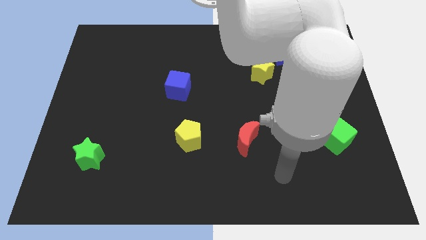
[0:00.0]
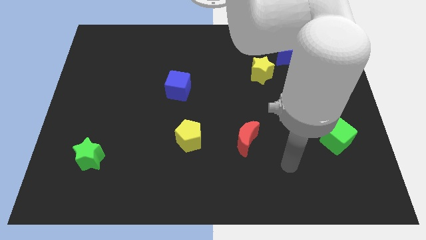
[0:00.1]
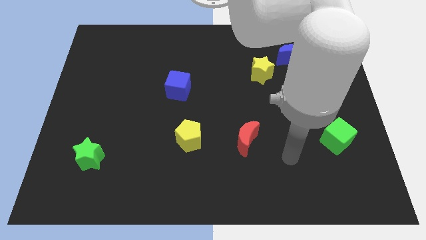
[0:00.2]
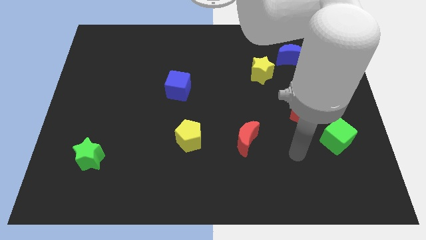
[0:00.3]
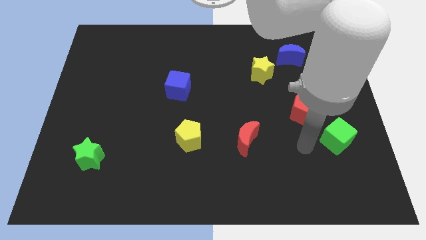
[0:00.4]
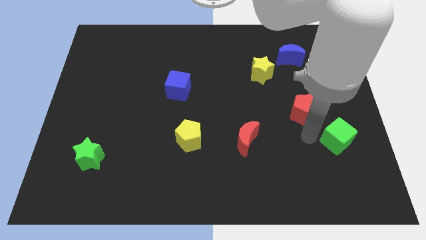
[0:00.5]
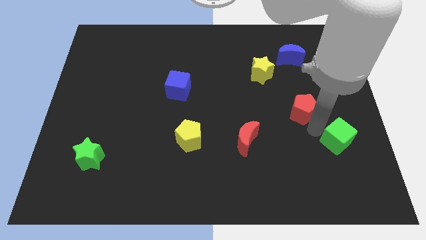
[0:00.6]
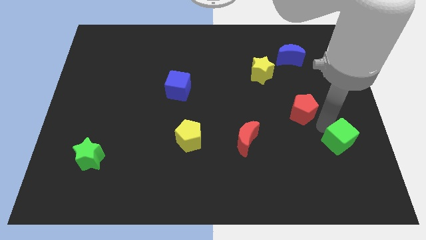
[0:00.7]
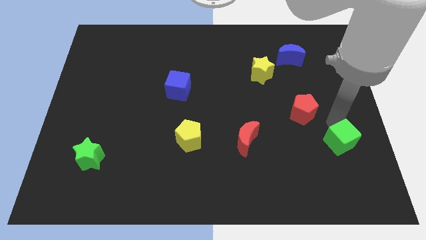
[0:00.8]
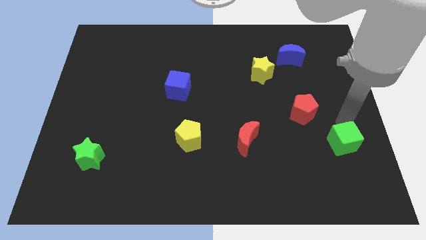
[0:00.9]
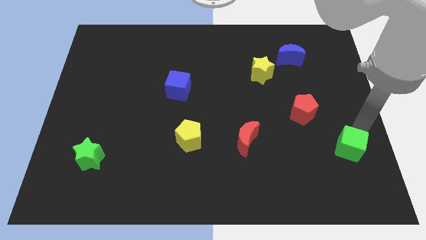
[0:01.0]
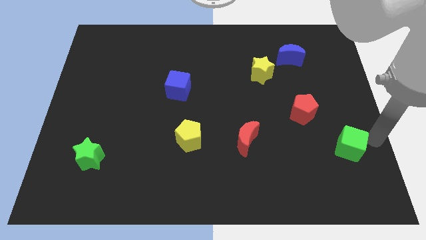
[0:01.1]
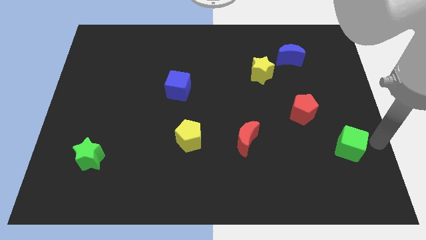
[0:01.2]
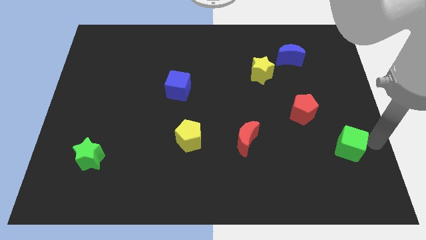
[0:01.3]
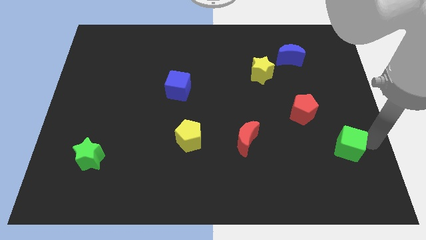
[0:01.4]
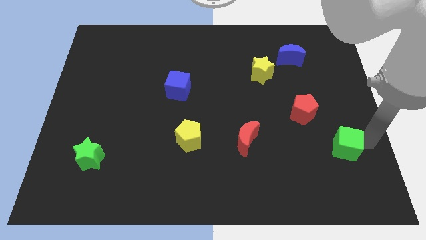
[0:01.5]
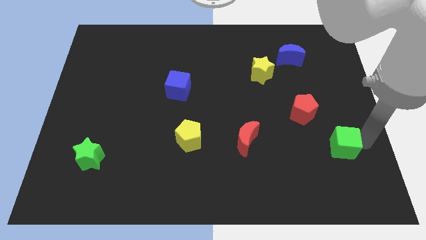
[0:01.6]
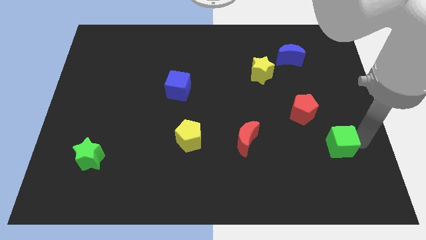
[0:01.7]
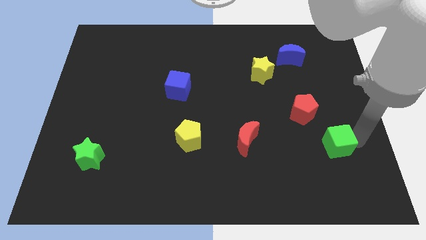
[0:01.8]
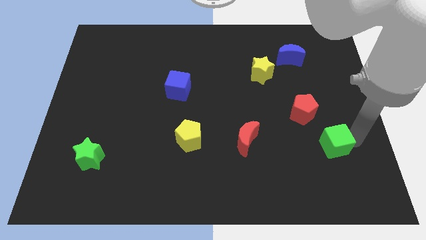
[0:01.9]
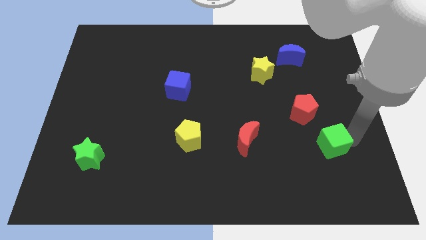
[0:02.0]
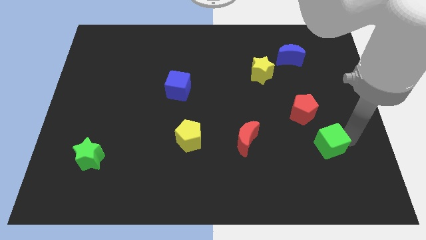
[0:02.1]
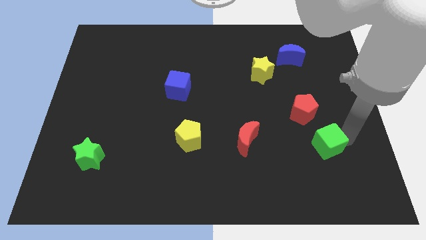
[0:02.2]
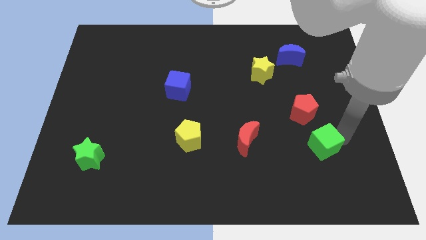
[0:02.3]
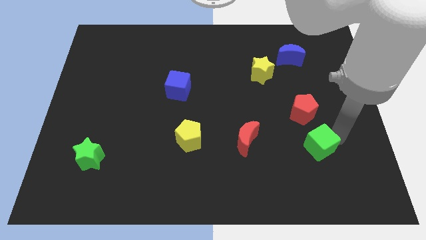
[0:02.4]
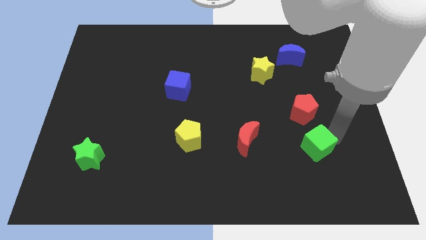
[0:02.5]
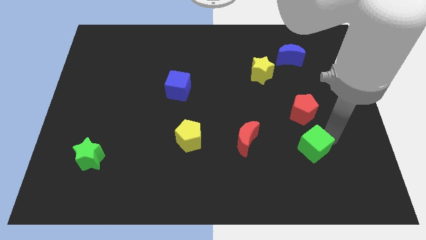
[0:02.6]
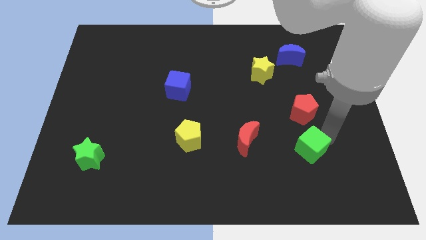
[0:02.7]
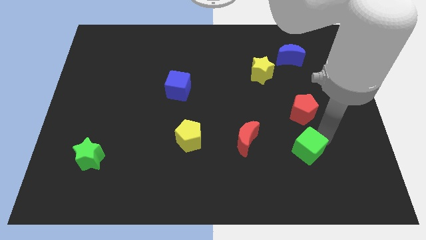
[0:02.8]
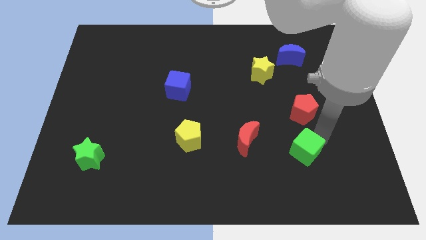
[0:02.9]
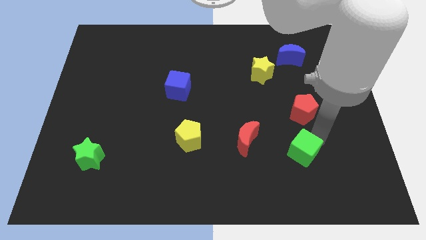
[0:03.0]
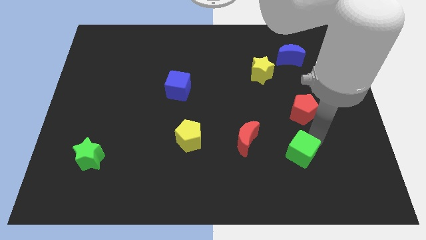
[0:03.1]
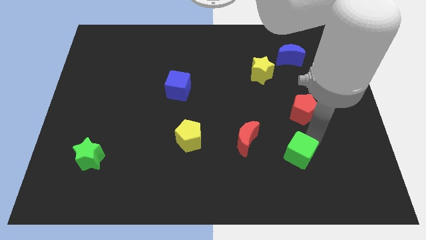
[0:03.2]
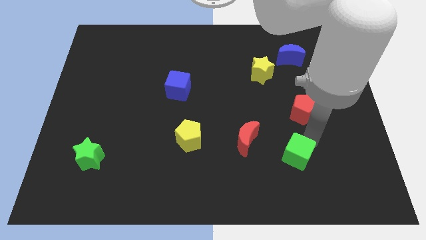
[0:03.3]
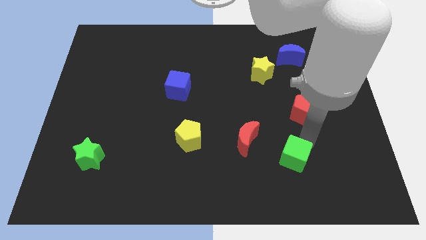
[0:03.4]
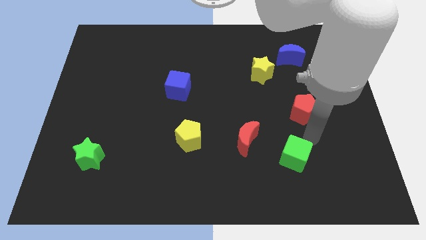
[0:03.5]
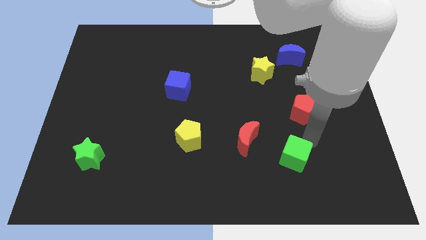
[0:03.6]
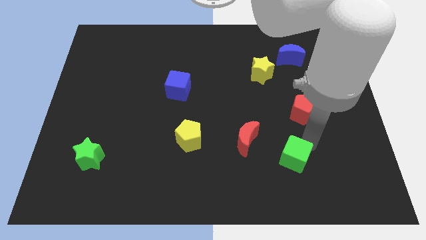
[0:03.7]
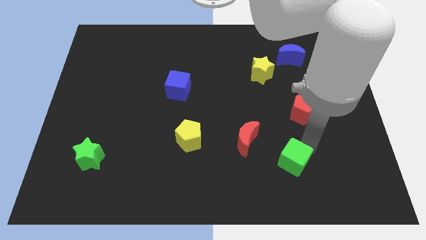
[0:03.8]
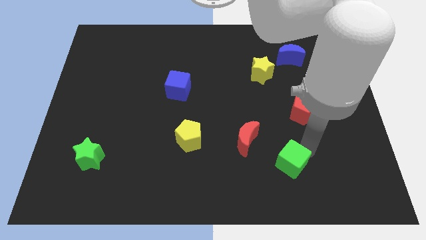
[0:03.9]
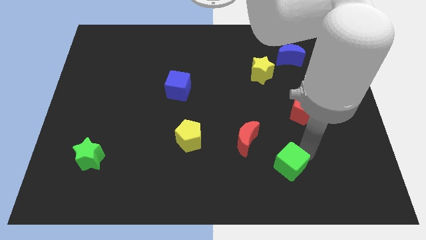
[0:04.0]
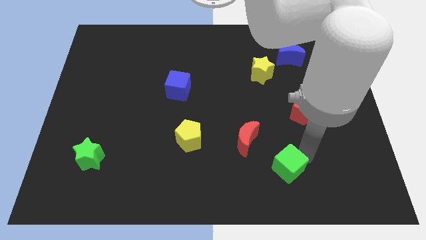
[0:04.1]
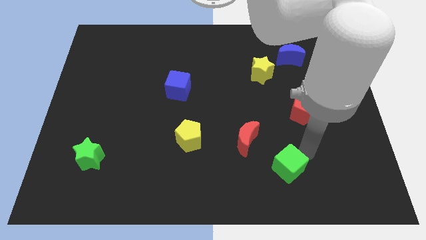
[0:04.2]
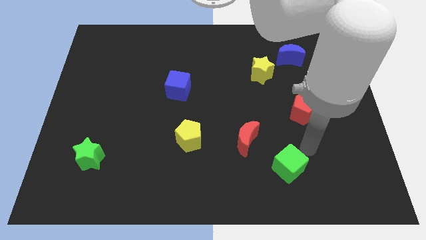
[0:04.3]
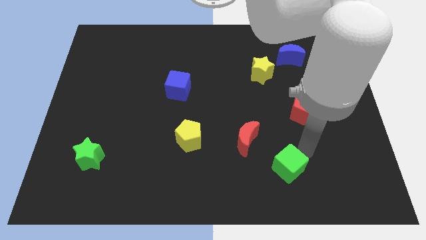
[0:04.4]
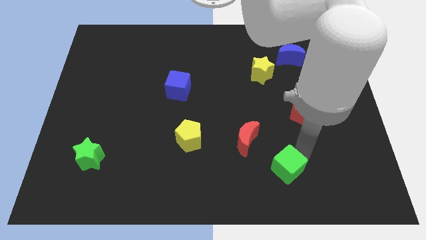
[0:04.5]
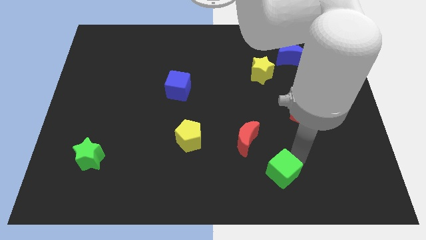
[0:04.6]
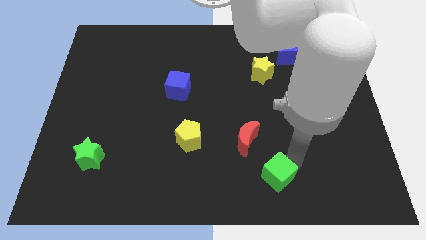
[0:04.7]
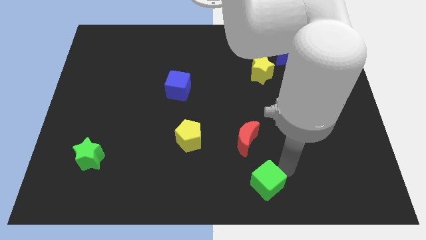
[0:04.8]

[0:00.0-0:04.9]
put the green cube to the bottom

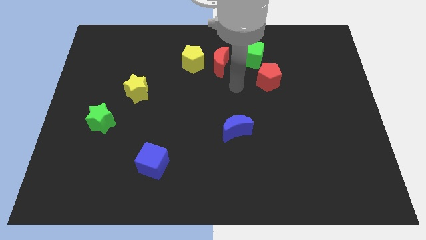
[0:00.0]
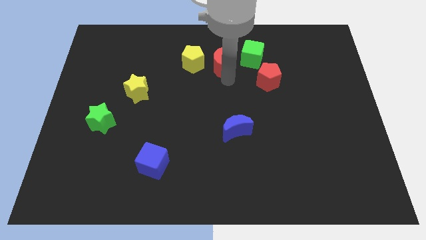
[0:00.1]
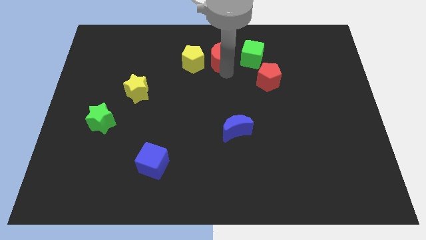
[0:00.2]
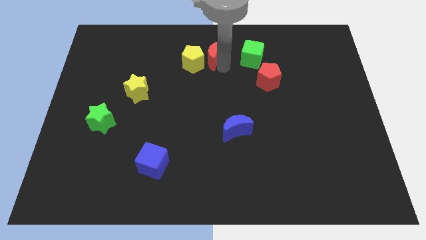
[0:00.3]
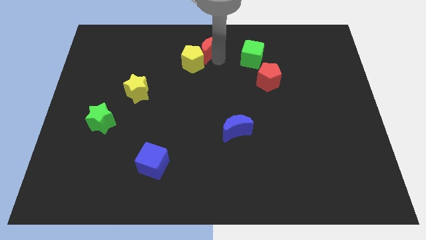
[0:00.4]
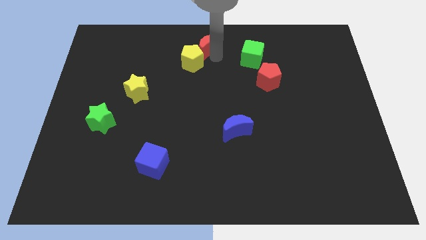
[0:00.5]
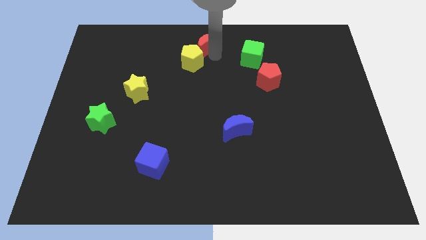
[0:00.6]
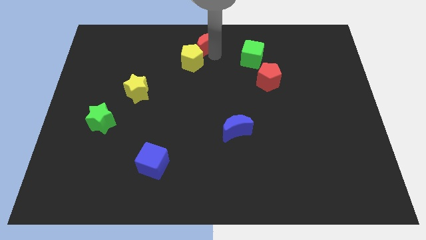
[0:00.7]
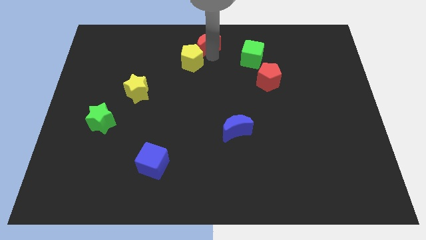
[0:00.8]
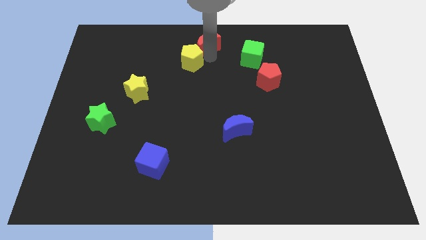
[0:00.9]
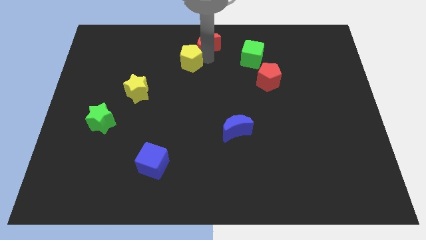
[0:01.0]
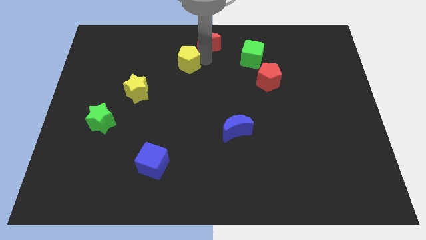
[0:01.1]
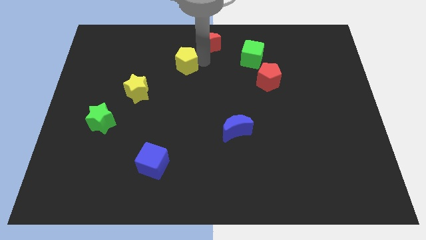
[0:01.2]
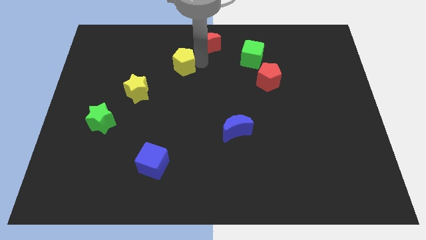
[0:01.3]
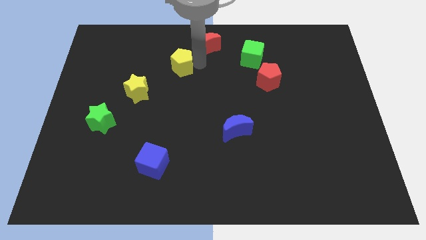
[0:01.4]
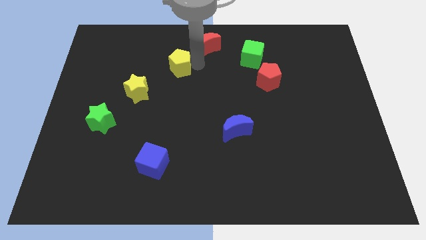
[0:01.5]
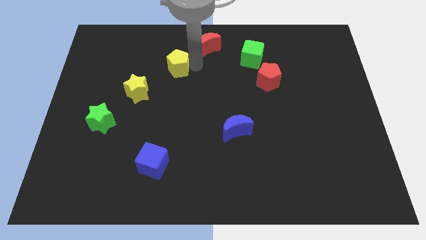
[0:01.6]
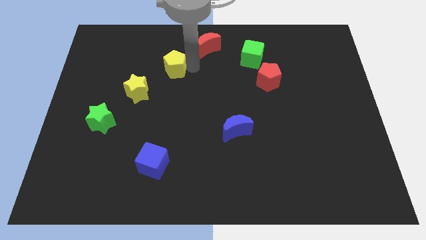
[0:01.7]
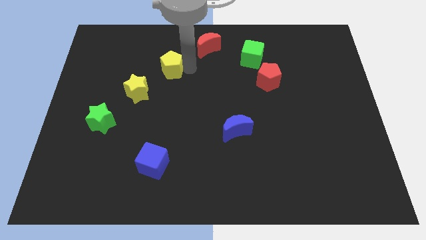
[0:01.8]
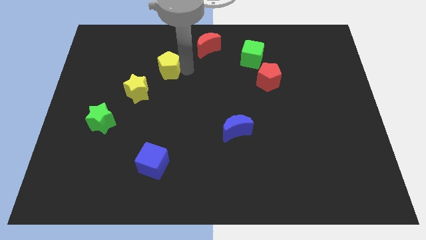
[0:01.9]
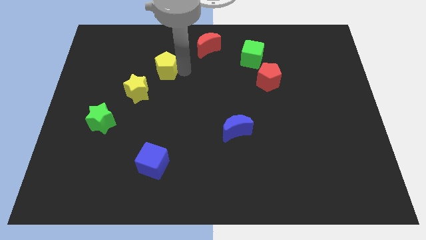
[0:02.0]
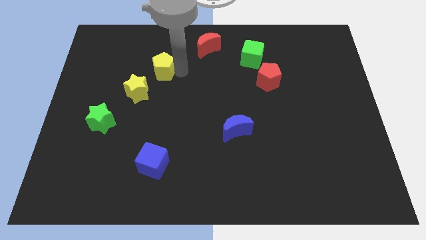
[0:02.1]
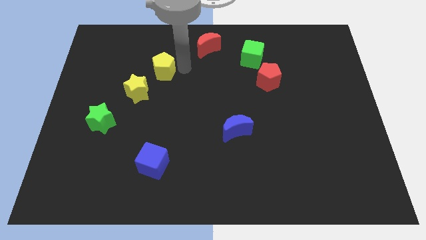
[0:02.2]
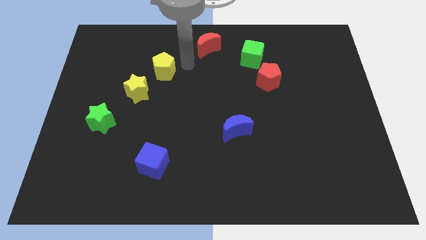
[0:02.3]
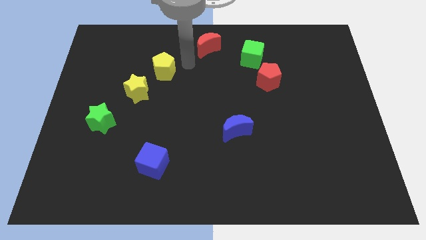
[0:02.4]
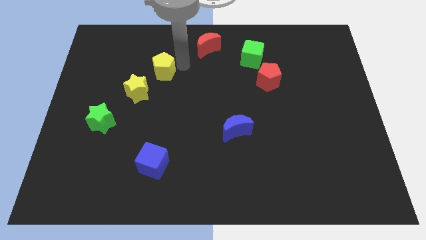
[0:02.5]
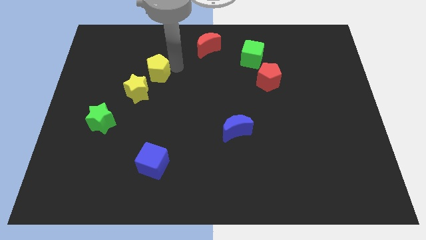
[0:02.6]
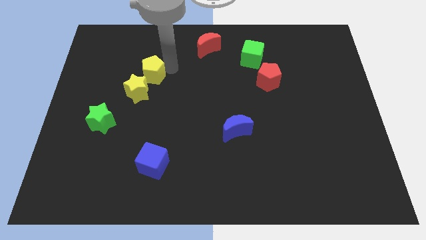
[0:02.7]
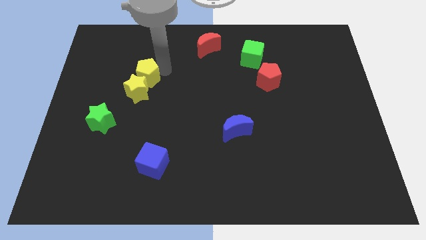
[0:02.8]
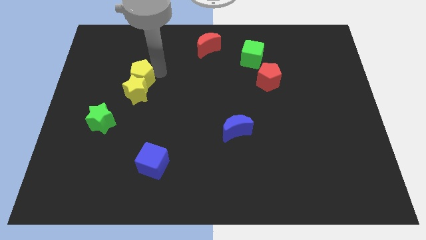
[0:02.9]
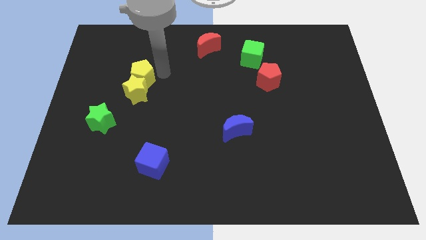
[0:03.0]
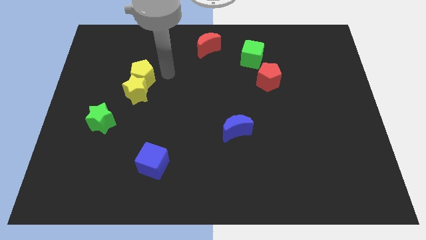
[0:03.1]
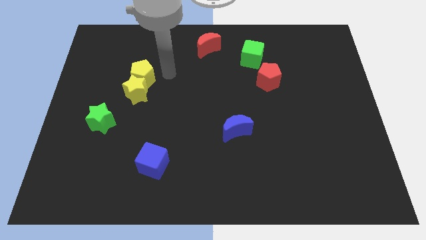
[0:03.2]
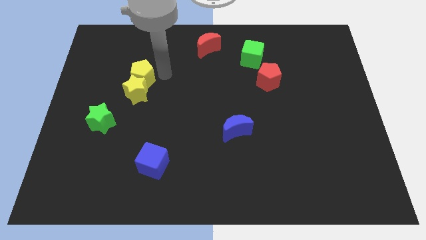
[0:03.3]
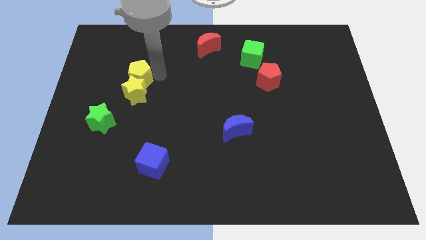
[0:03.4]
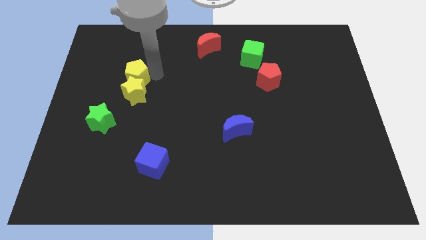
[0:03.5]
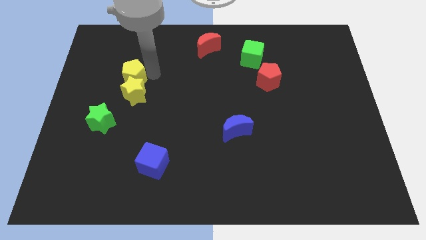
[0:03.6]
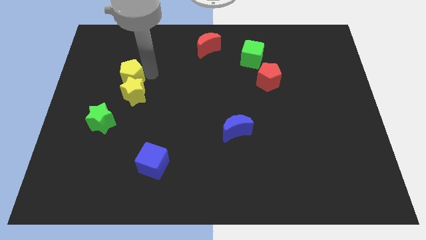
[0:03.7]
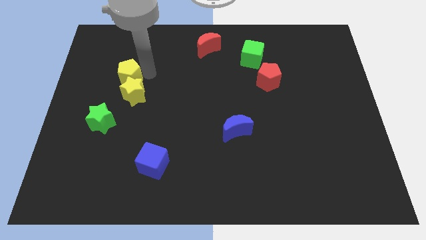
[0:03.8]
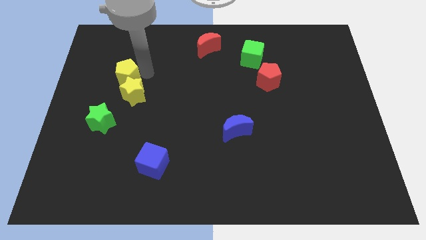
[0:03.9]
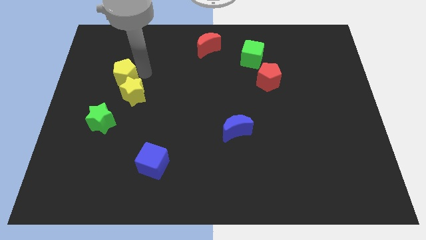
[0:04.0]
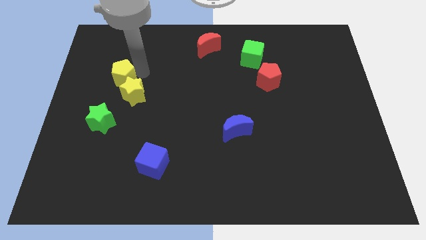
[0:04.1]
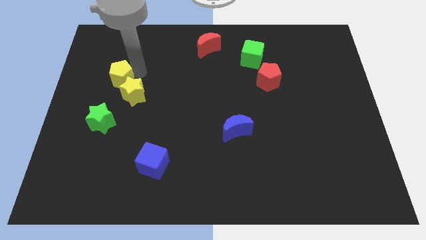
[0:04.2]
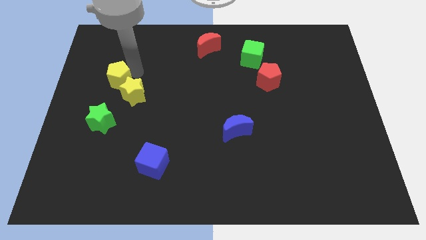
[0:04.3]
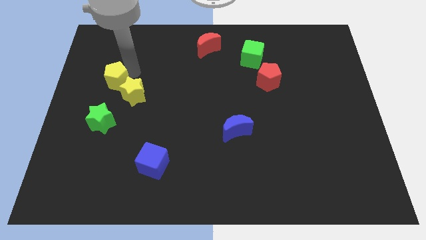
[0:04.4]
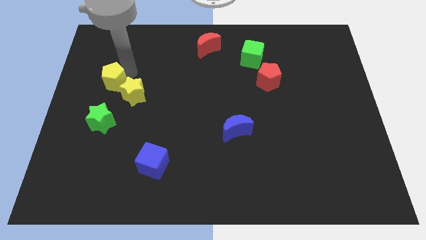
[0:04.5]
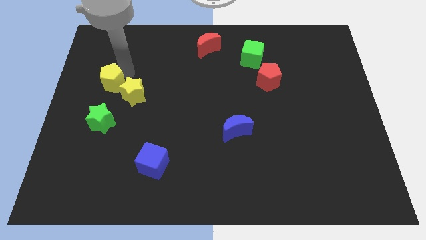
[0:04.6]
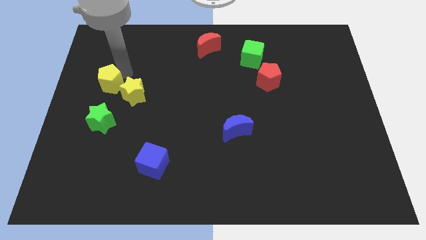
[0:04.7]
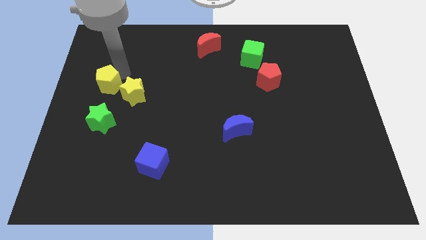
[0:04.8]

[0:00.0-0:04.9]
push the yellow pentagon to the left side
